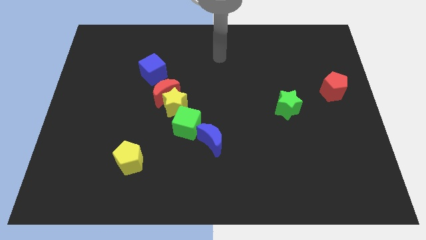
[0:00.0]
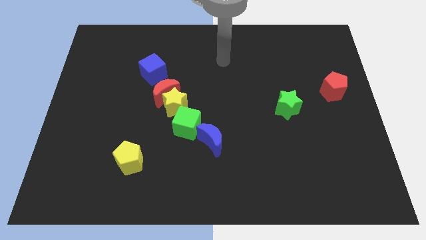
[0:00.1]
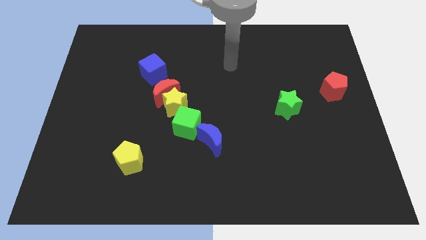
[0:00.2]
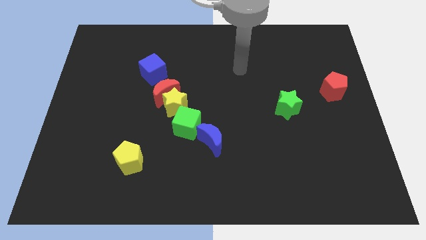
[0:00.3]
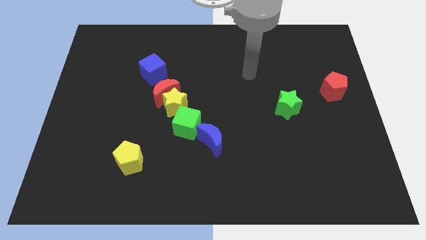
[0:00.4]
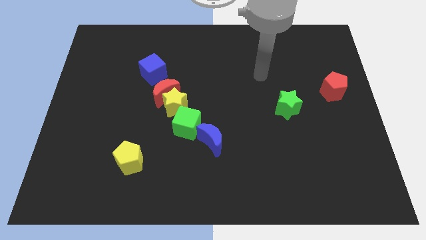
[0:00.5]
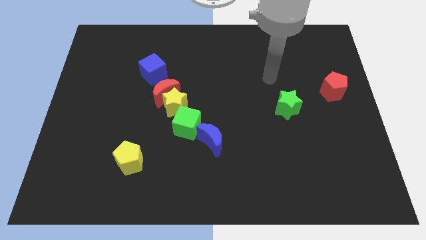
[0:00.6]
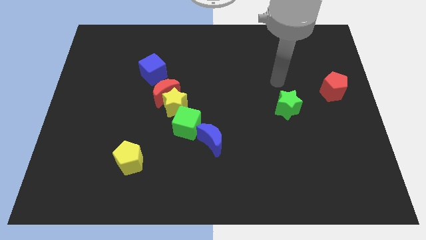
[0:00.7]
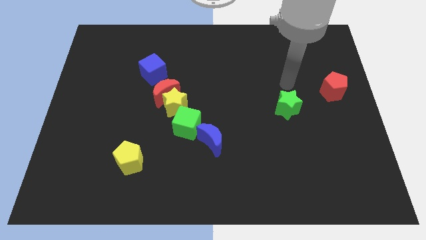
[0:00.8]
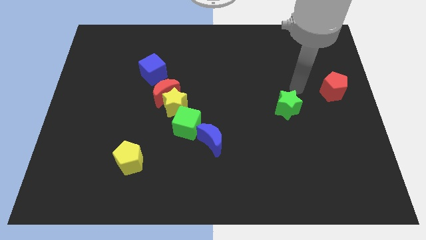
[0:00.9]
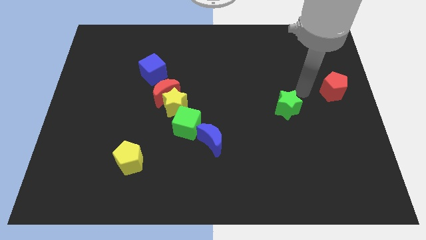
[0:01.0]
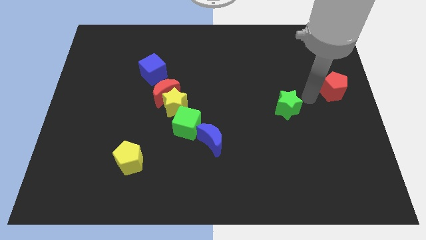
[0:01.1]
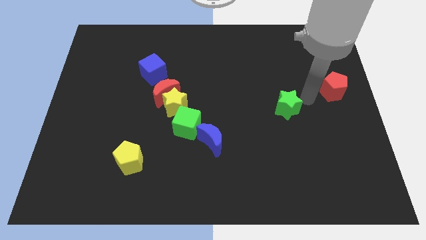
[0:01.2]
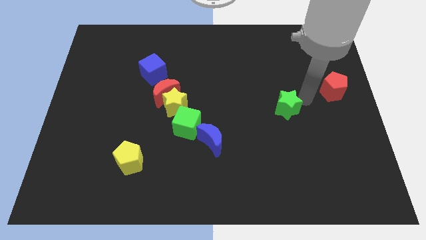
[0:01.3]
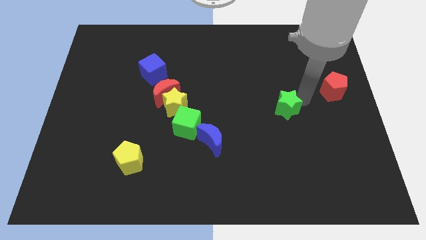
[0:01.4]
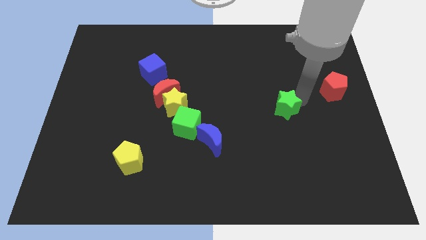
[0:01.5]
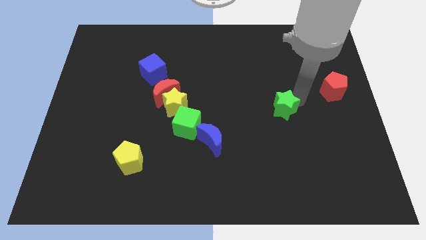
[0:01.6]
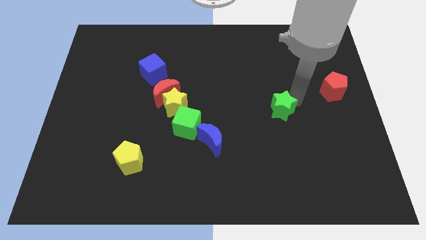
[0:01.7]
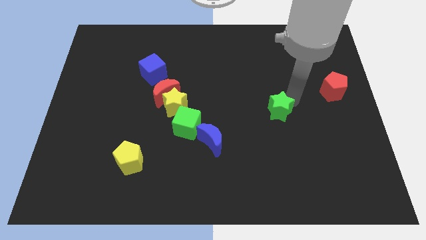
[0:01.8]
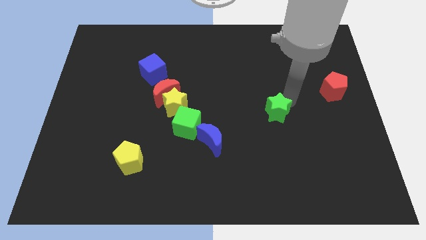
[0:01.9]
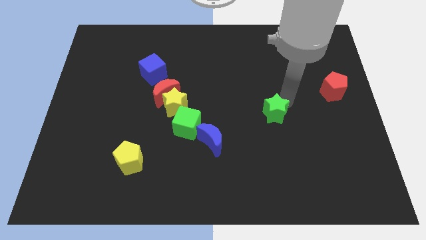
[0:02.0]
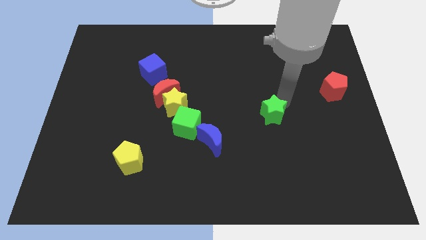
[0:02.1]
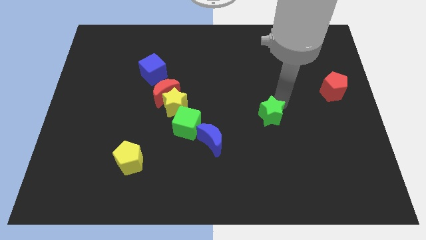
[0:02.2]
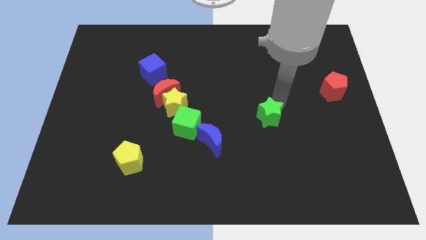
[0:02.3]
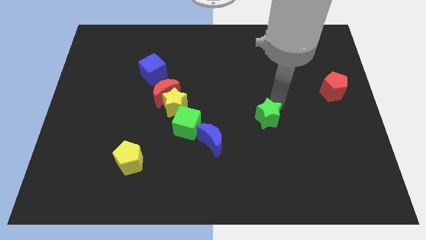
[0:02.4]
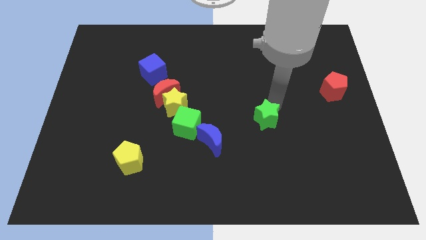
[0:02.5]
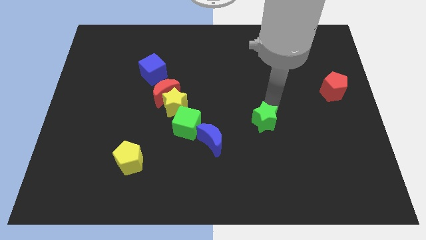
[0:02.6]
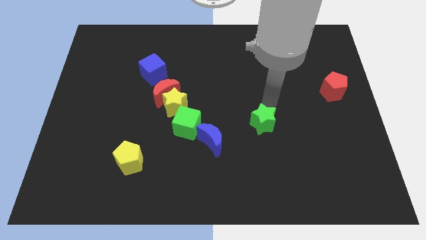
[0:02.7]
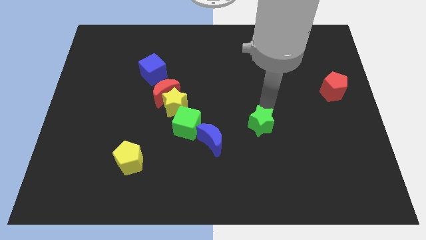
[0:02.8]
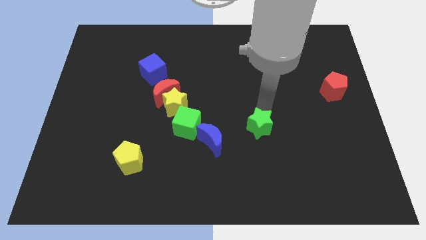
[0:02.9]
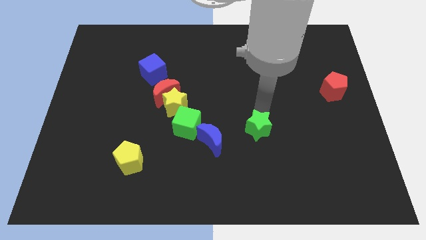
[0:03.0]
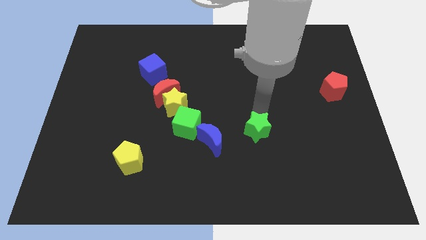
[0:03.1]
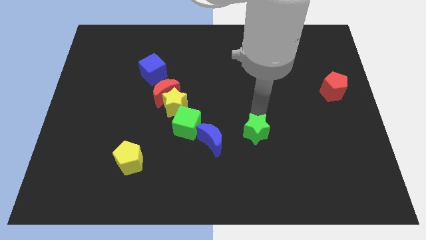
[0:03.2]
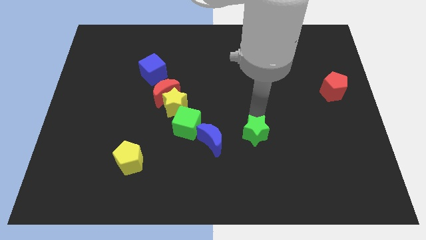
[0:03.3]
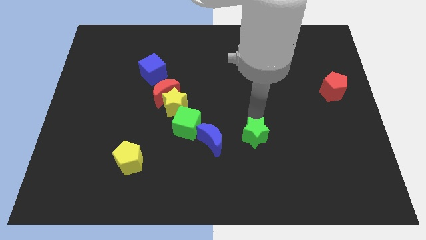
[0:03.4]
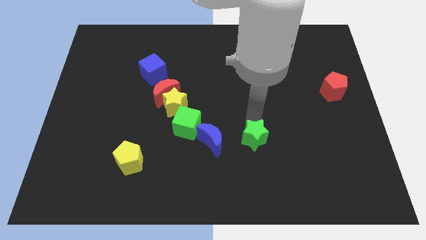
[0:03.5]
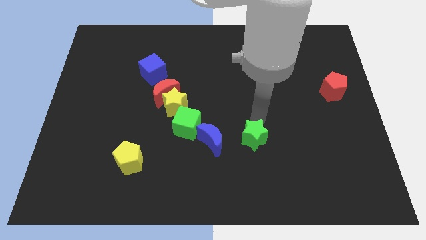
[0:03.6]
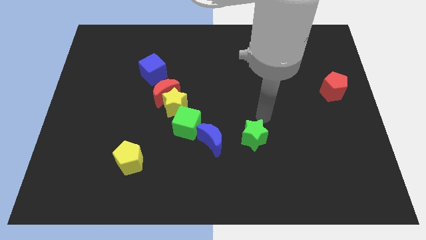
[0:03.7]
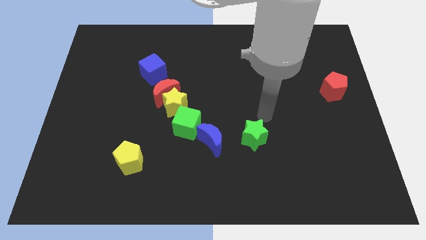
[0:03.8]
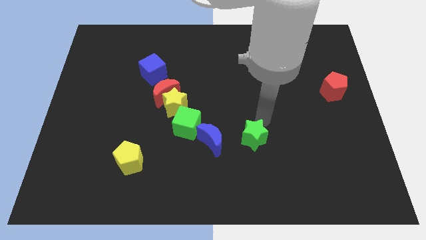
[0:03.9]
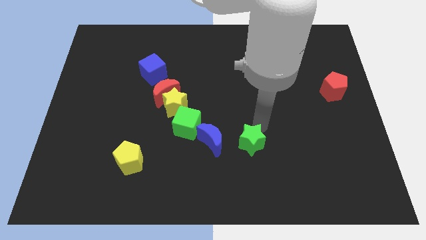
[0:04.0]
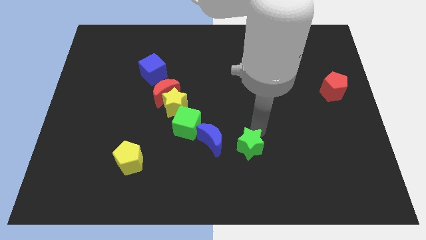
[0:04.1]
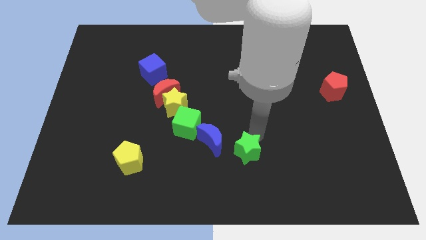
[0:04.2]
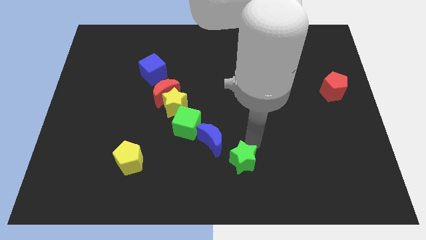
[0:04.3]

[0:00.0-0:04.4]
slide the green star to the bottom side

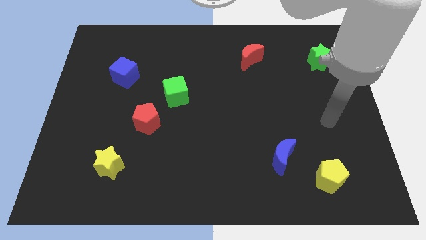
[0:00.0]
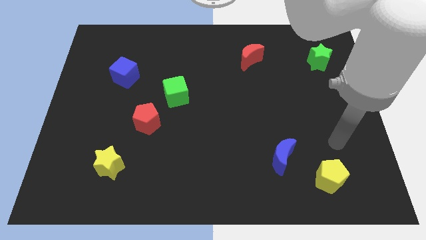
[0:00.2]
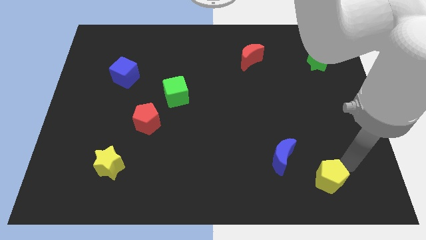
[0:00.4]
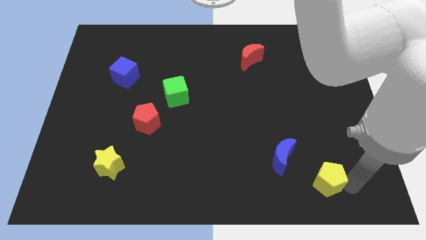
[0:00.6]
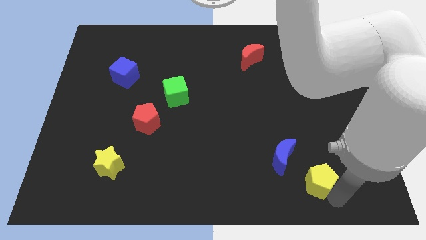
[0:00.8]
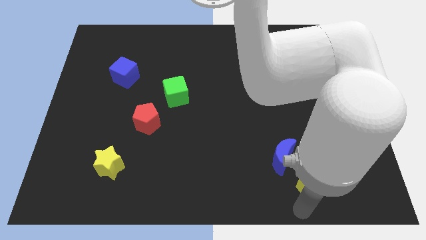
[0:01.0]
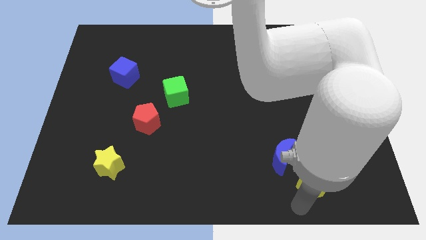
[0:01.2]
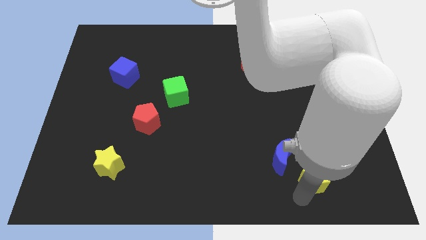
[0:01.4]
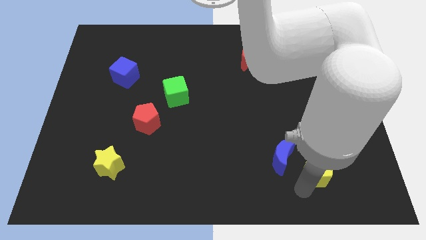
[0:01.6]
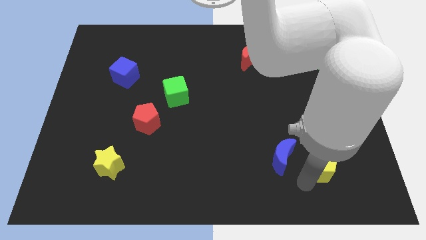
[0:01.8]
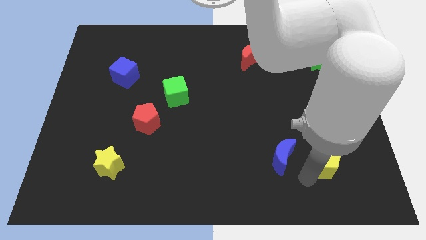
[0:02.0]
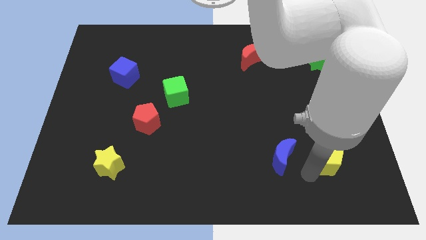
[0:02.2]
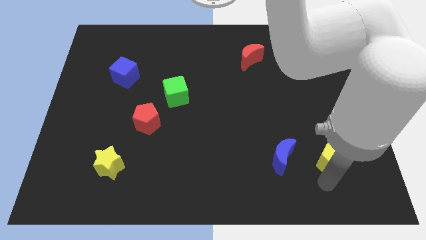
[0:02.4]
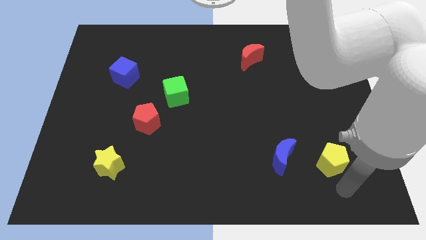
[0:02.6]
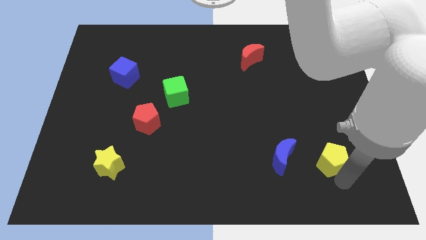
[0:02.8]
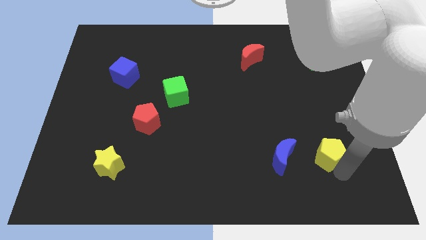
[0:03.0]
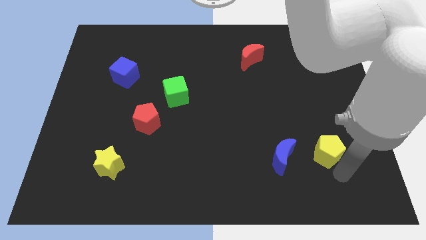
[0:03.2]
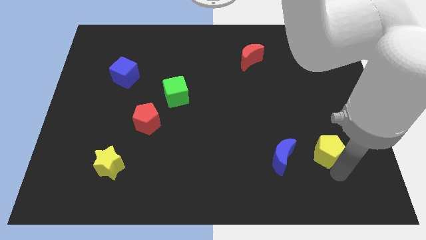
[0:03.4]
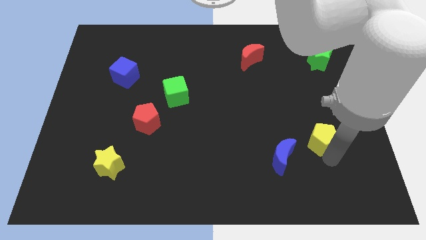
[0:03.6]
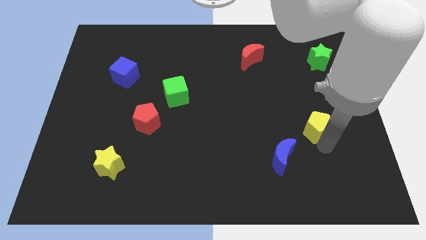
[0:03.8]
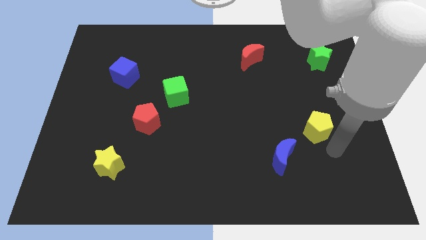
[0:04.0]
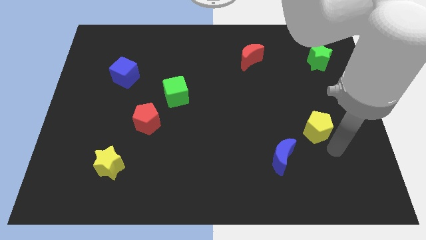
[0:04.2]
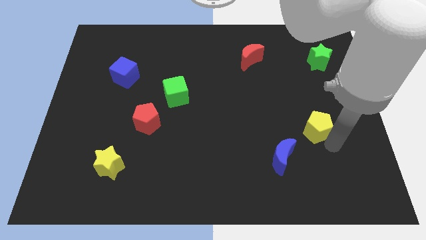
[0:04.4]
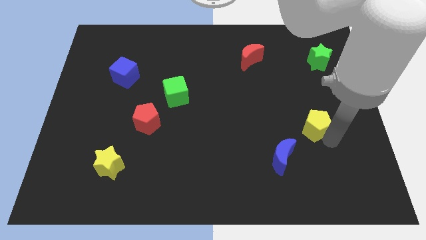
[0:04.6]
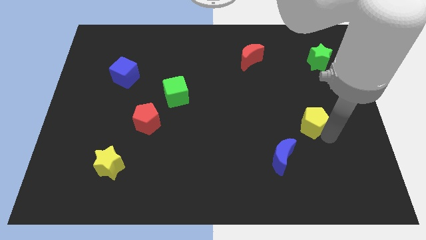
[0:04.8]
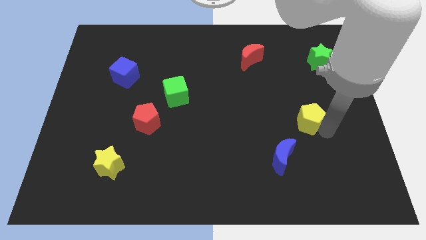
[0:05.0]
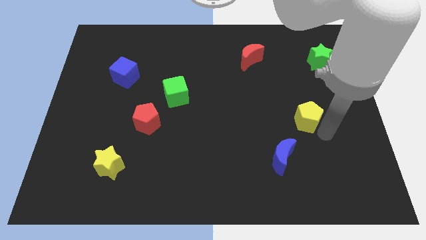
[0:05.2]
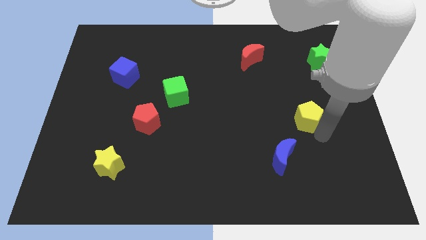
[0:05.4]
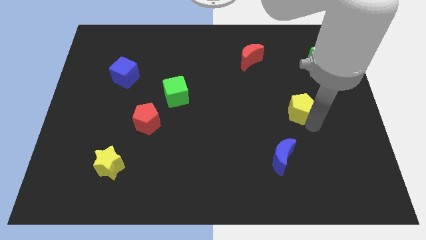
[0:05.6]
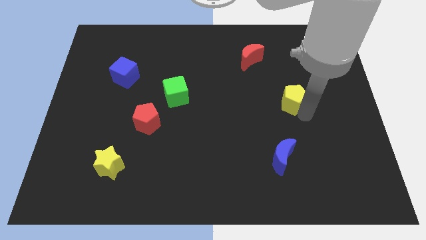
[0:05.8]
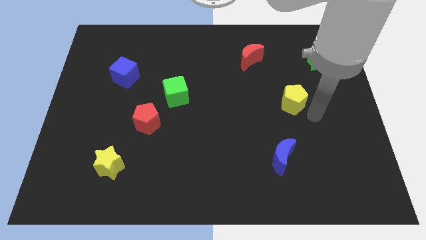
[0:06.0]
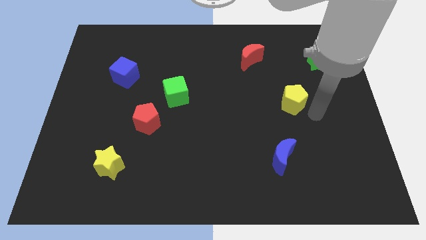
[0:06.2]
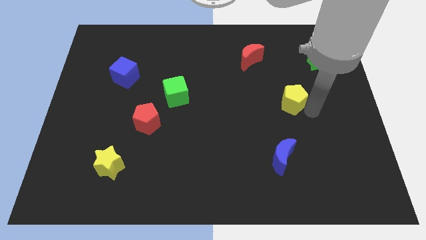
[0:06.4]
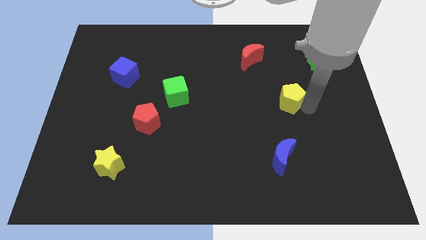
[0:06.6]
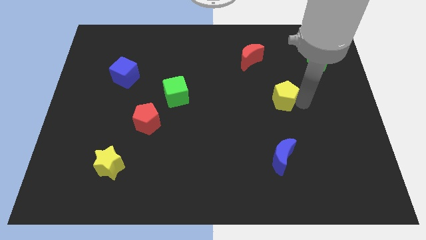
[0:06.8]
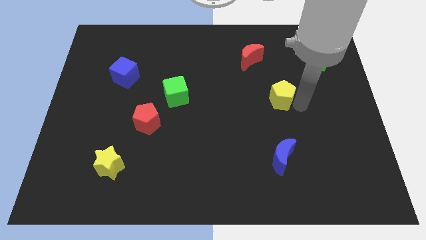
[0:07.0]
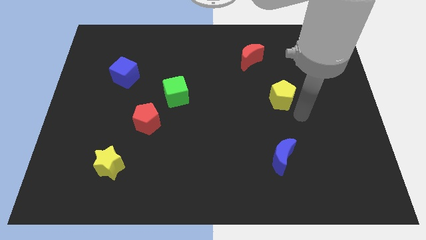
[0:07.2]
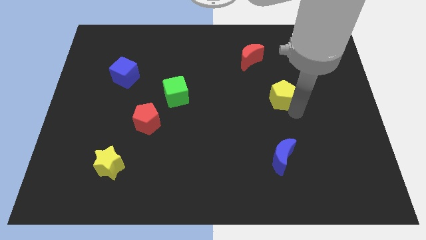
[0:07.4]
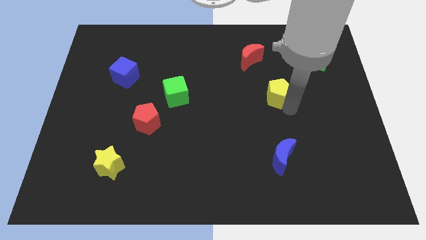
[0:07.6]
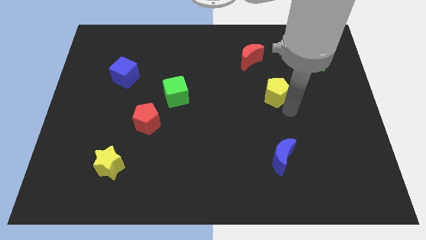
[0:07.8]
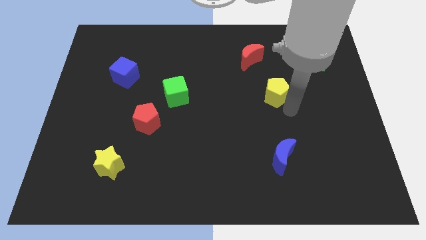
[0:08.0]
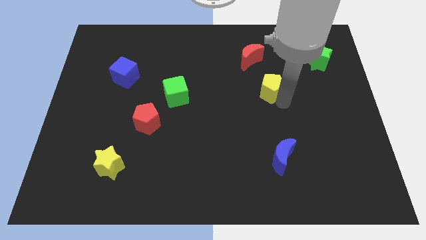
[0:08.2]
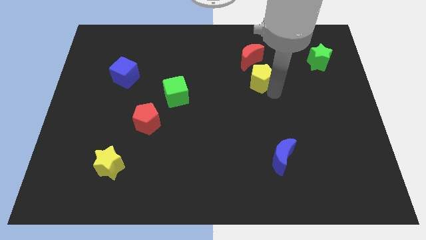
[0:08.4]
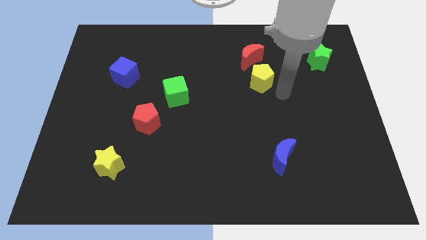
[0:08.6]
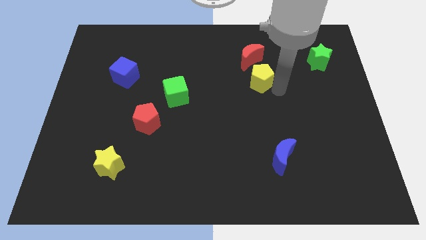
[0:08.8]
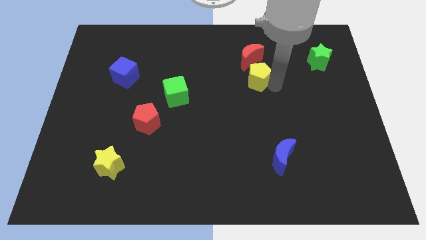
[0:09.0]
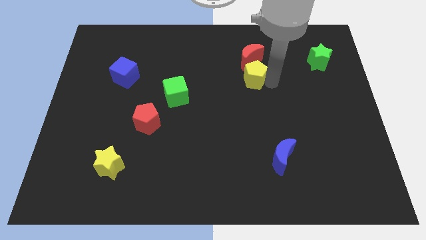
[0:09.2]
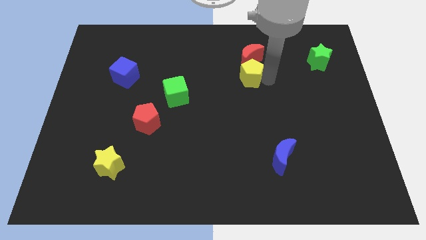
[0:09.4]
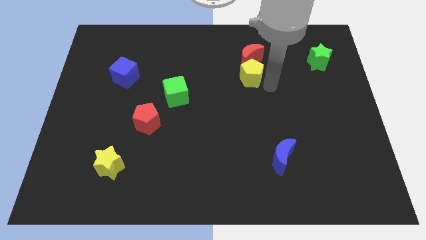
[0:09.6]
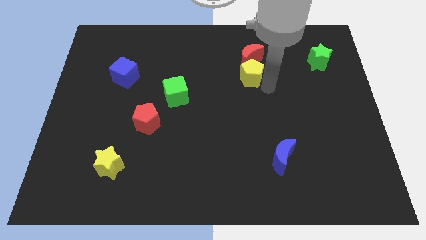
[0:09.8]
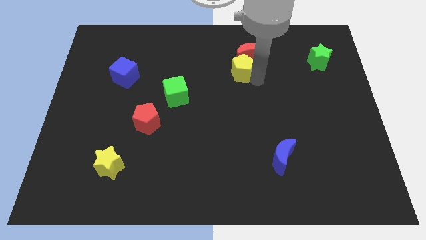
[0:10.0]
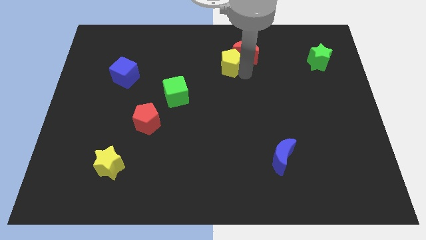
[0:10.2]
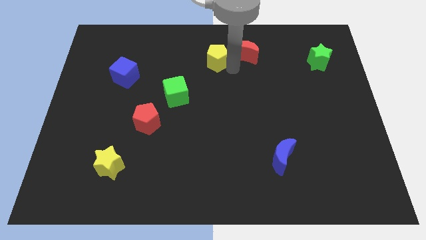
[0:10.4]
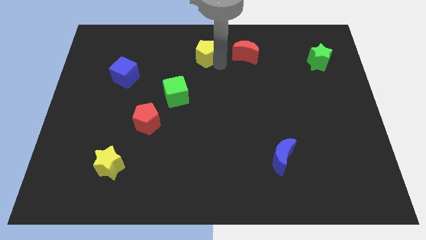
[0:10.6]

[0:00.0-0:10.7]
put the yellow pentagon to the top
